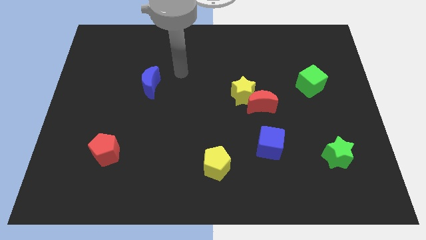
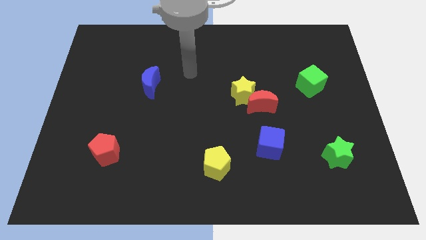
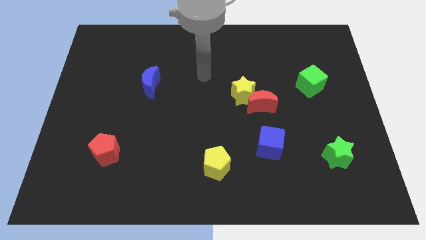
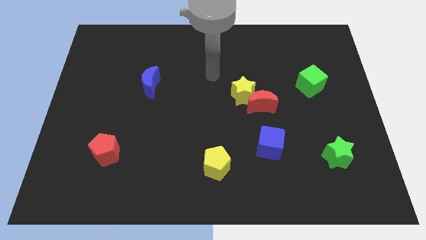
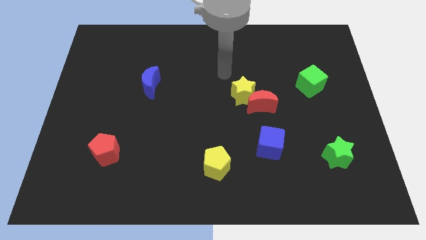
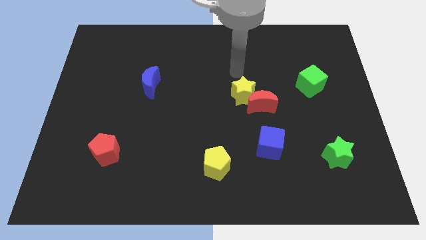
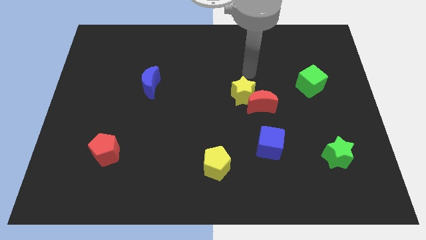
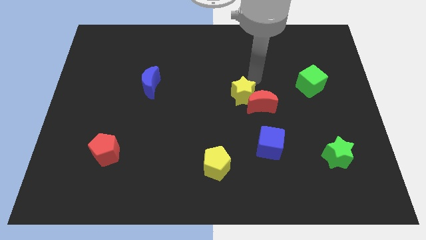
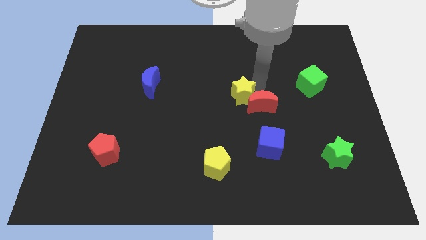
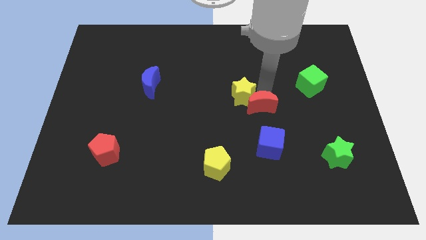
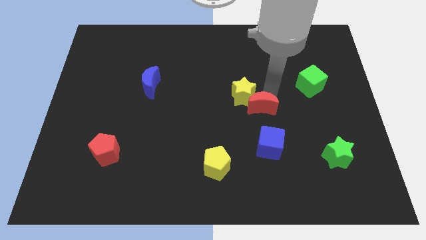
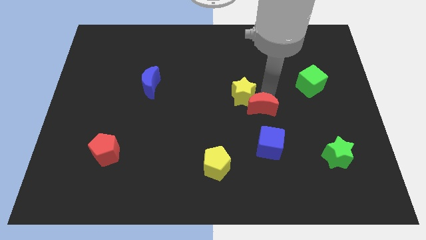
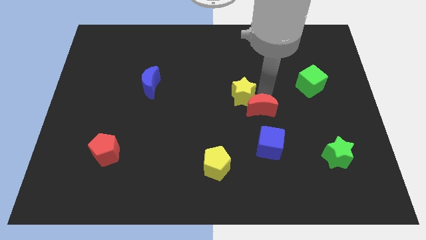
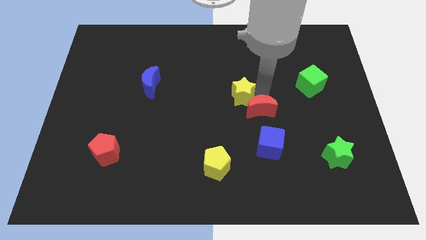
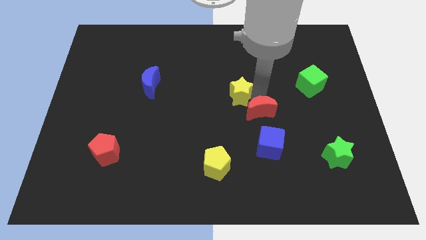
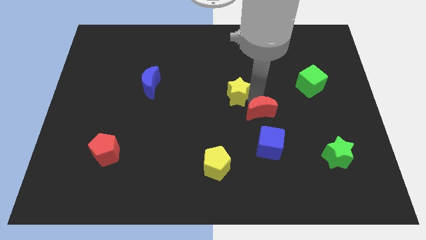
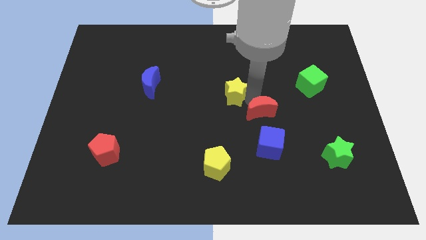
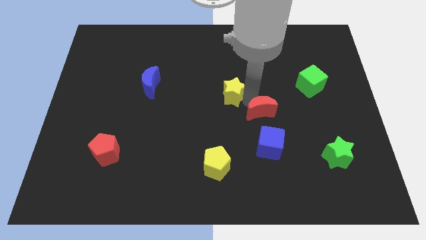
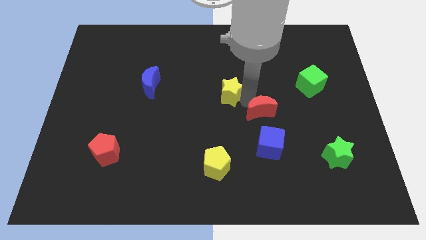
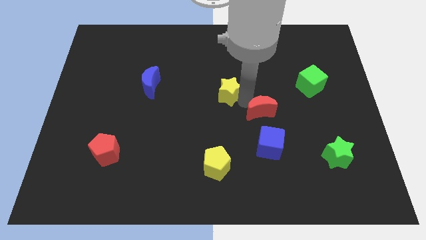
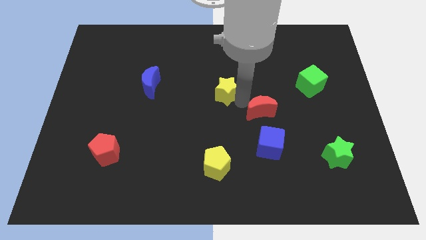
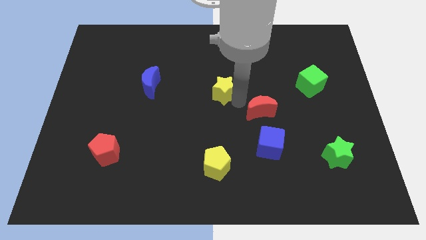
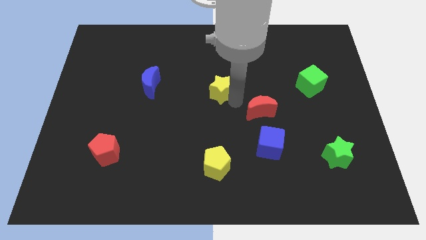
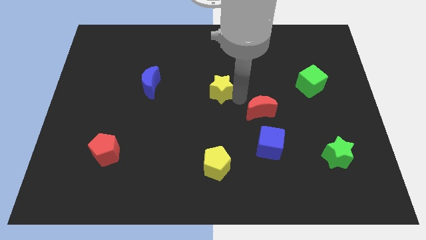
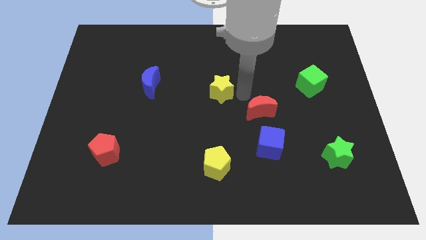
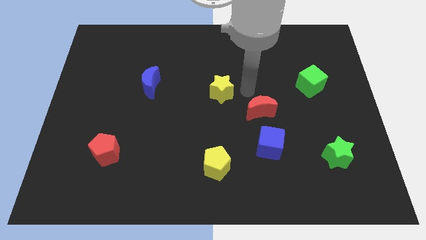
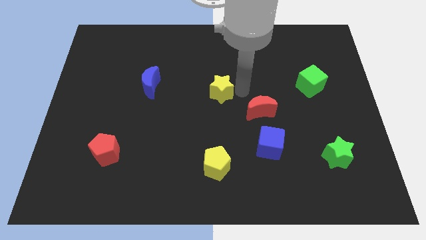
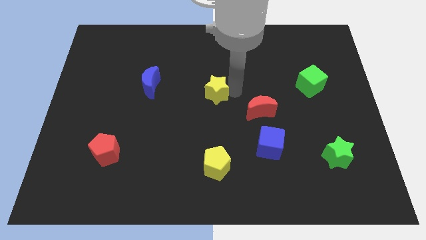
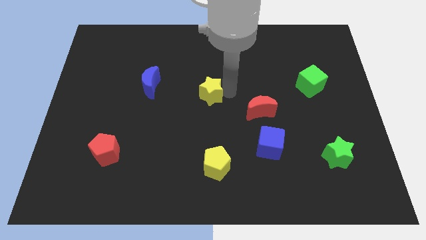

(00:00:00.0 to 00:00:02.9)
slightly move the yellow star to the left

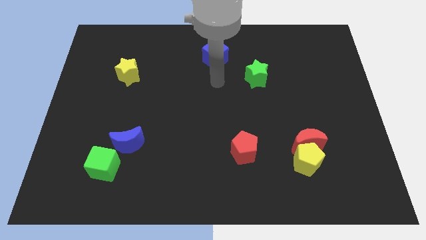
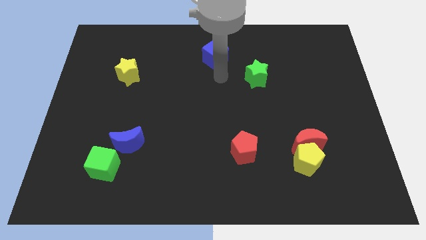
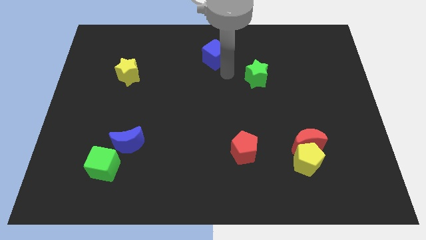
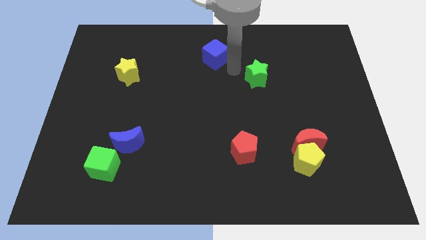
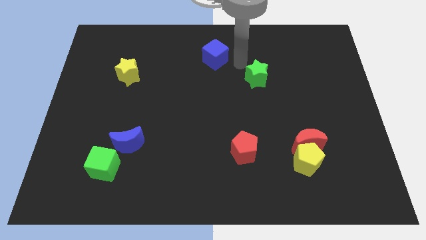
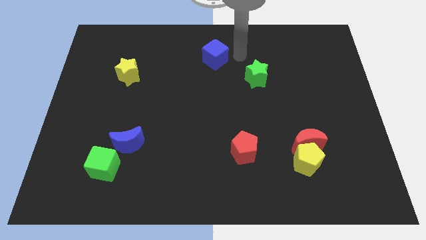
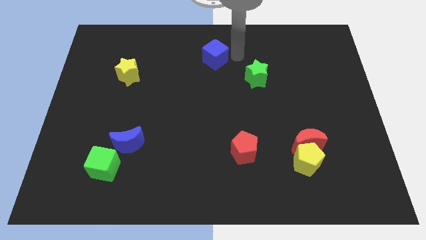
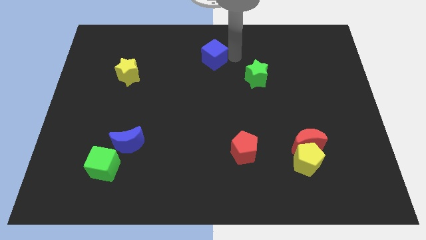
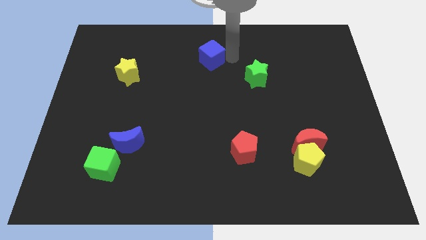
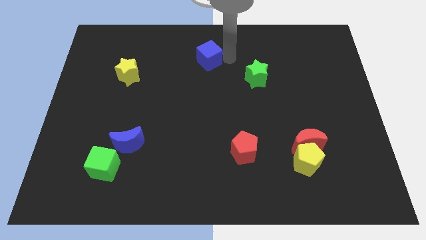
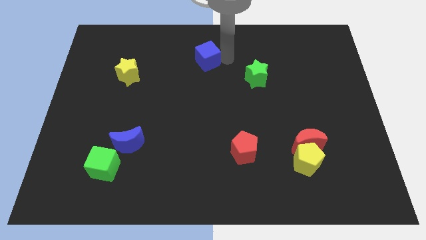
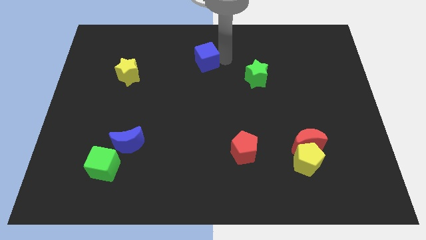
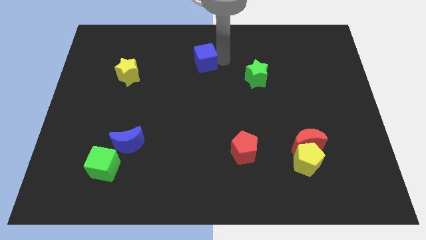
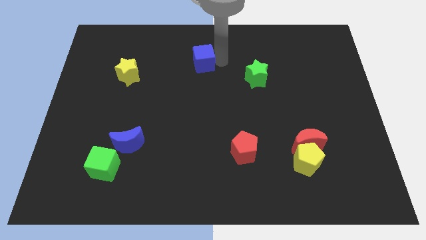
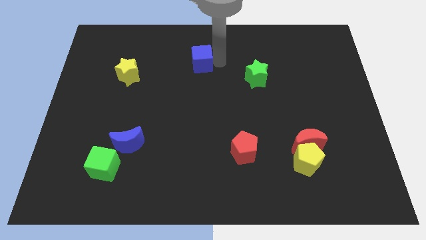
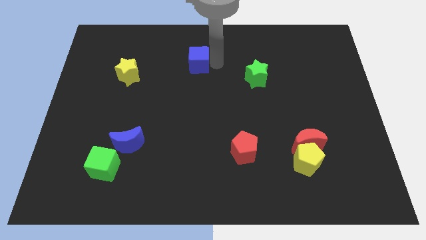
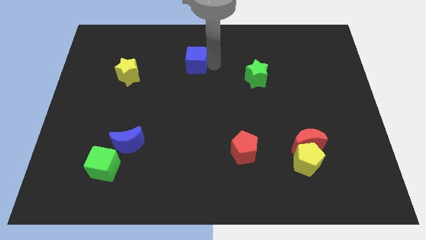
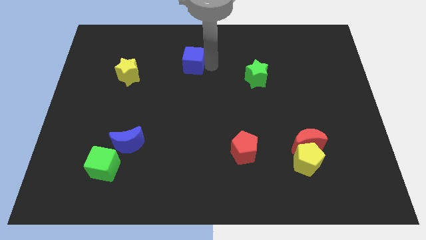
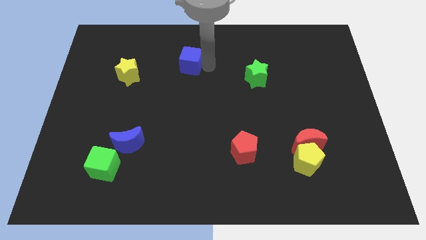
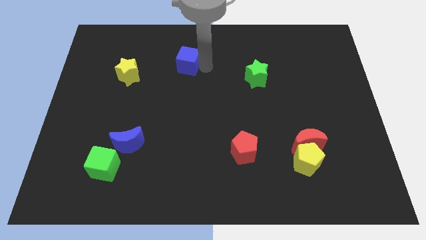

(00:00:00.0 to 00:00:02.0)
push the blue cube to the left slightly

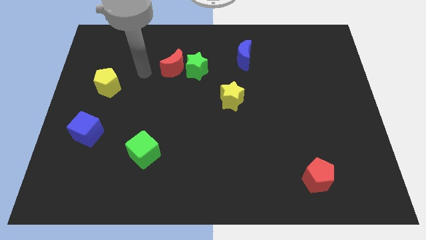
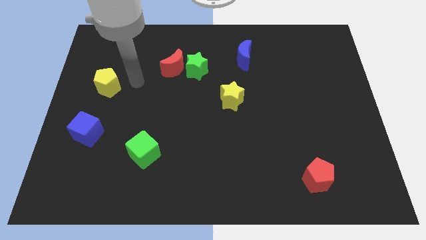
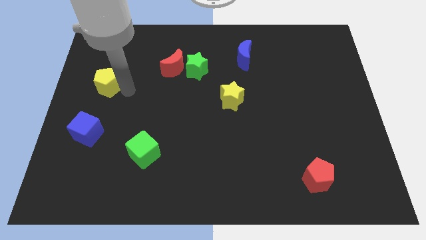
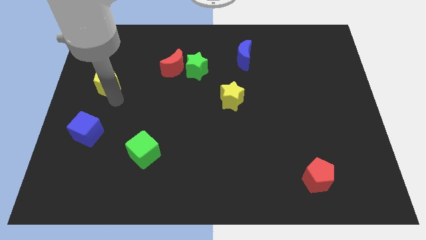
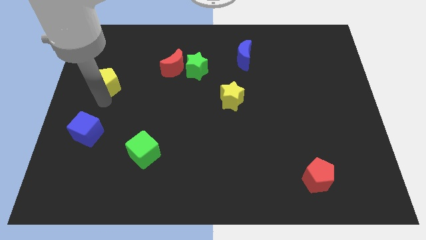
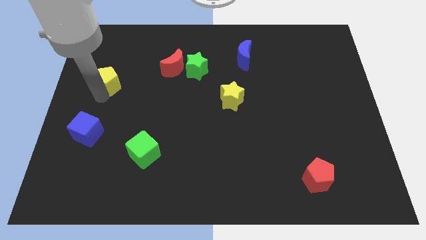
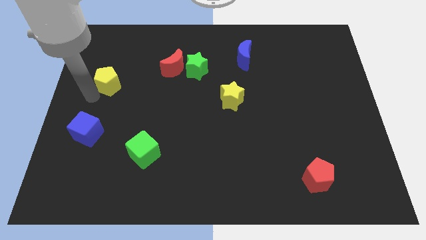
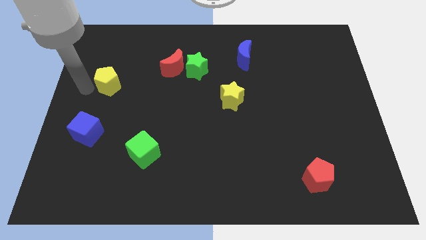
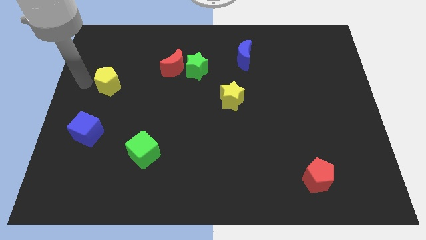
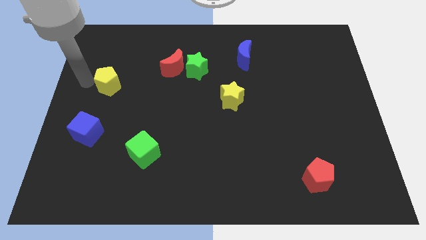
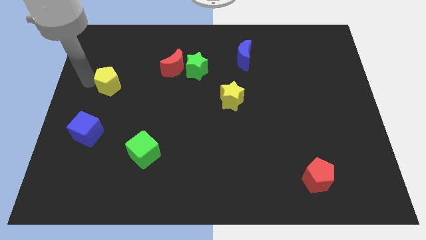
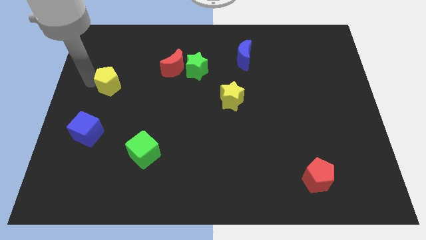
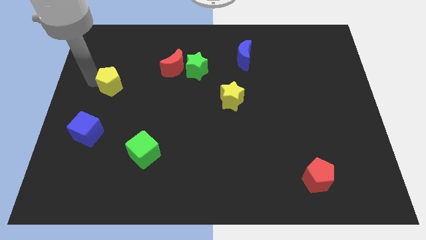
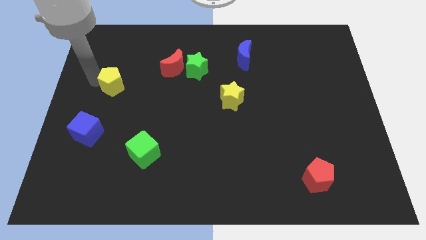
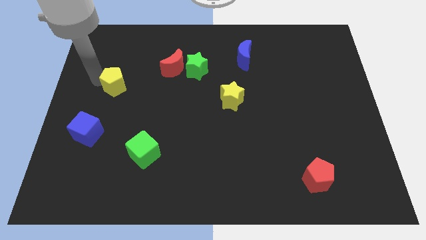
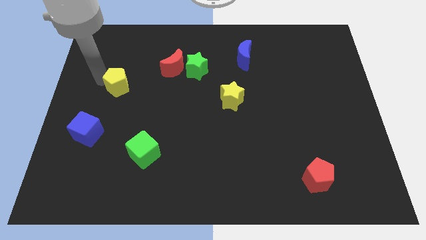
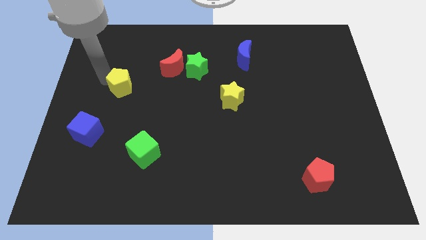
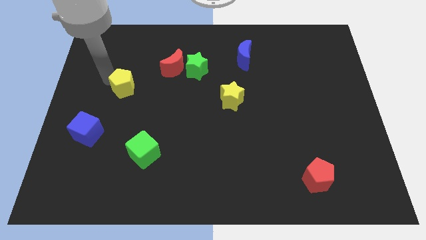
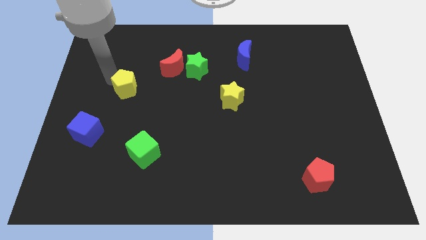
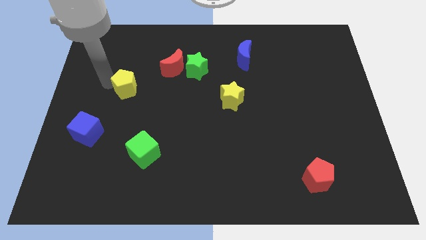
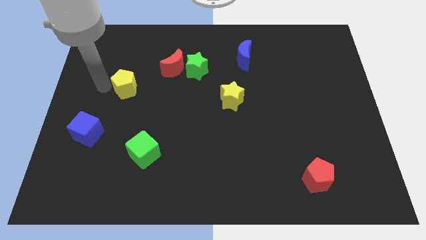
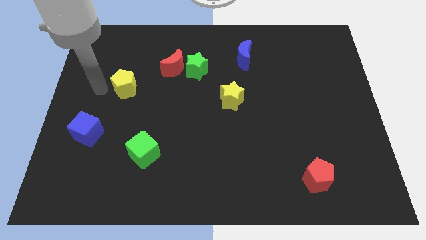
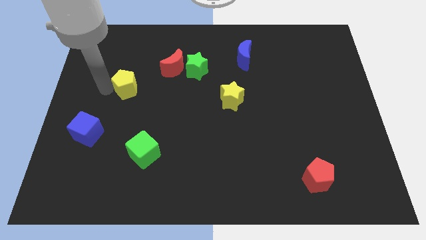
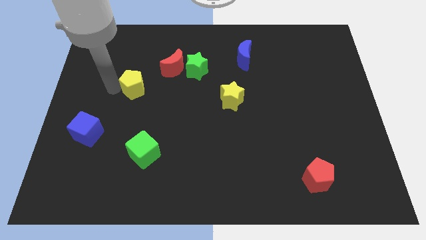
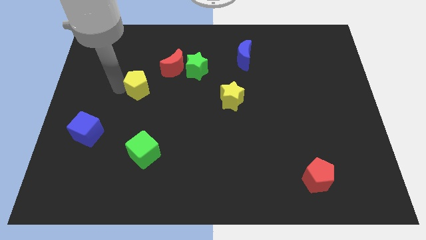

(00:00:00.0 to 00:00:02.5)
push the yellow pentagon a little right

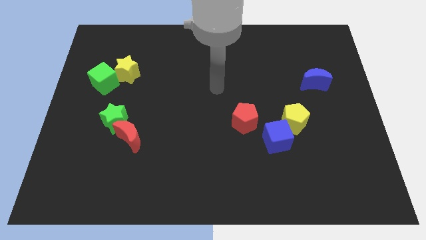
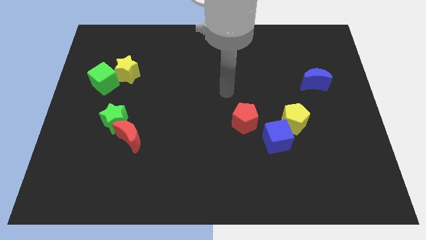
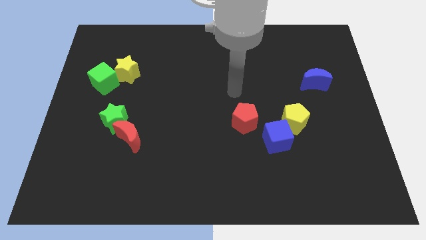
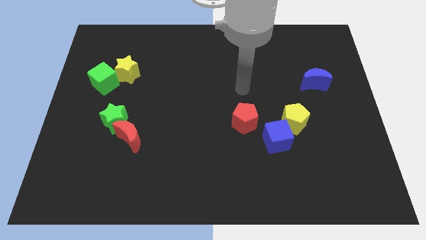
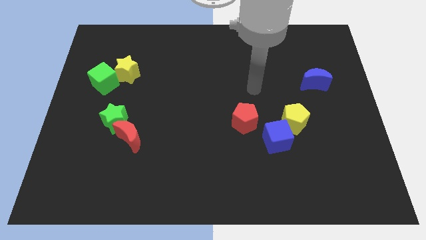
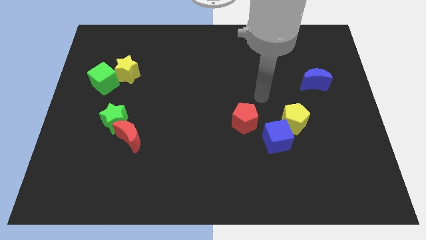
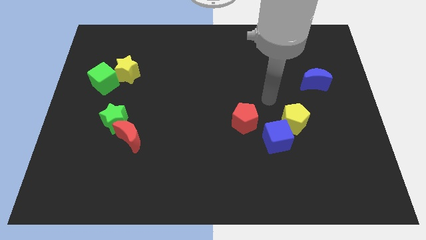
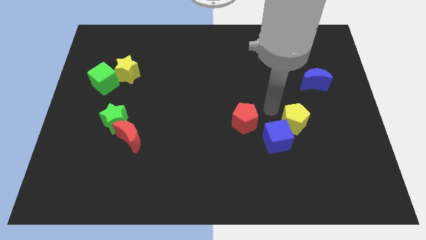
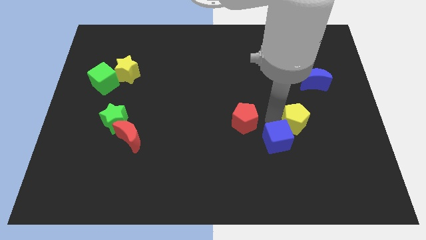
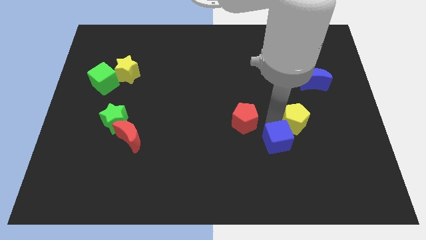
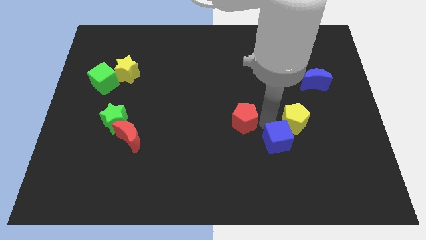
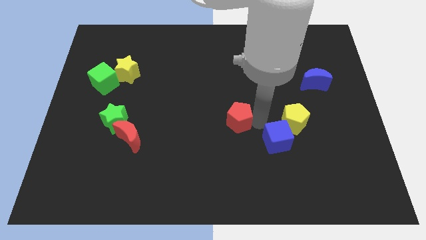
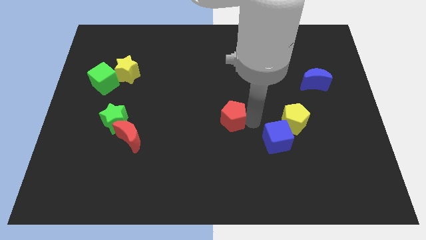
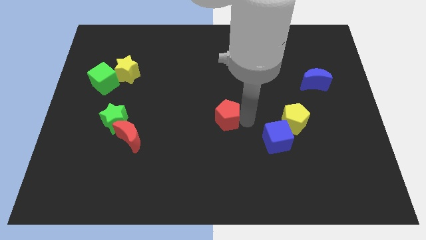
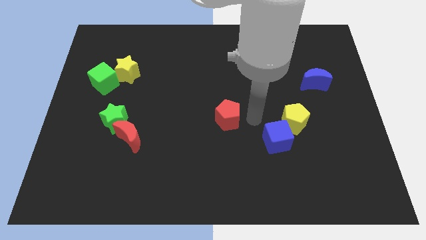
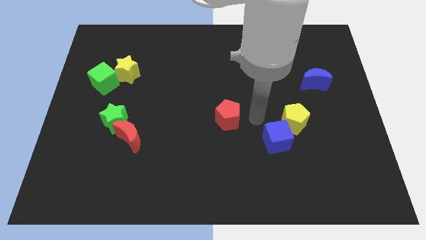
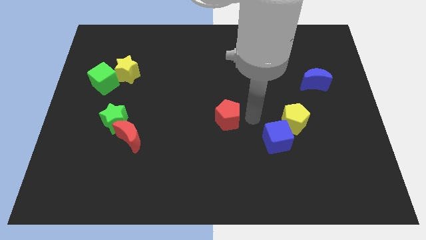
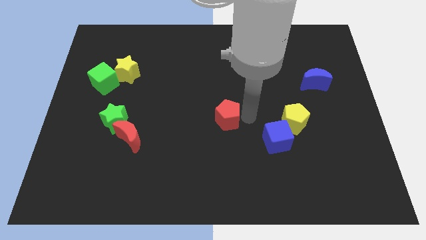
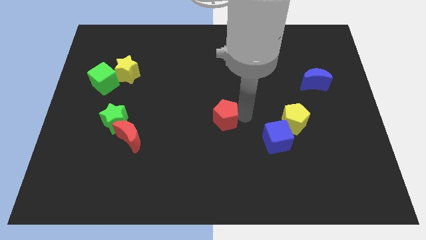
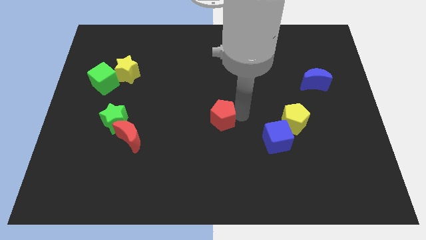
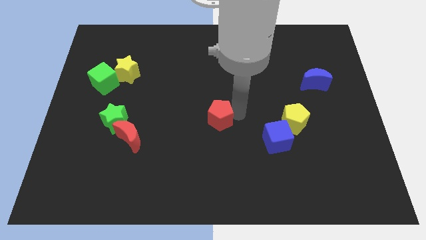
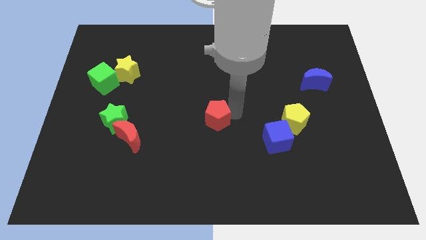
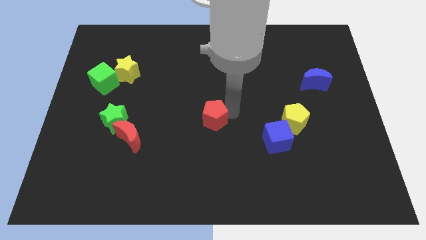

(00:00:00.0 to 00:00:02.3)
move the red pentagon a little bit left
